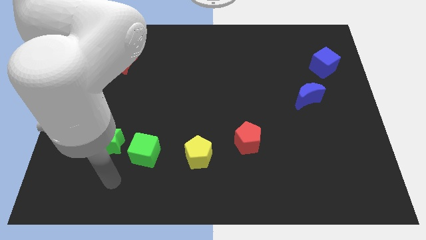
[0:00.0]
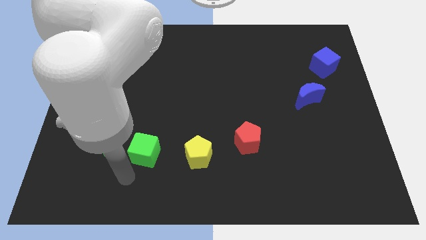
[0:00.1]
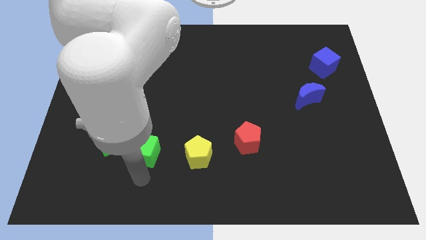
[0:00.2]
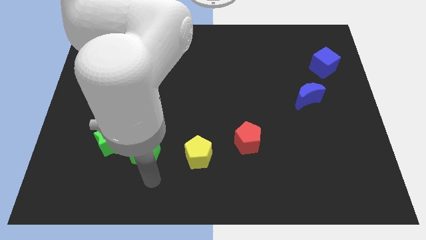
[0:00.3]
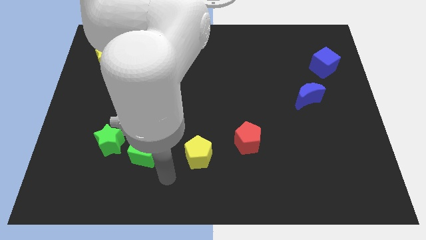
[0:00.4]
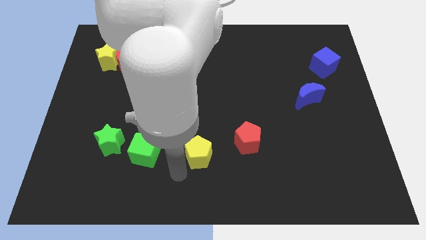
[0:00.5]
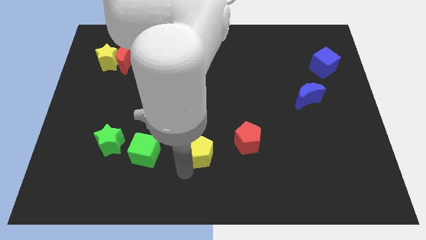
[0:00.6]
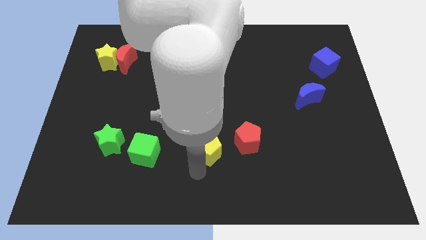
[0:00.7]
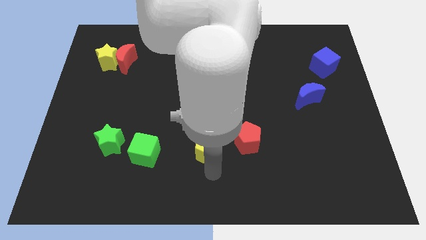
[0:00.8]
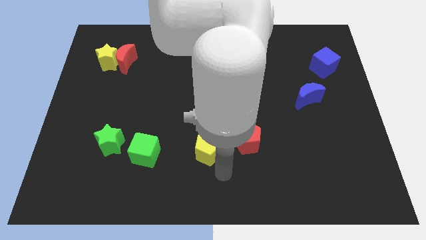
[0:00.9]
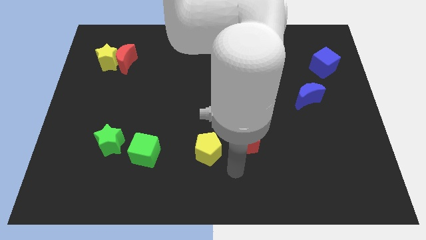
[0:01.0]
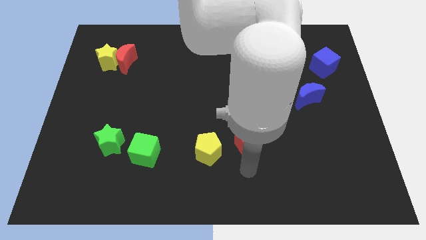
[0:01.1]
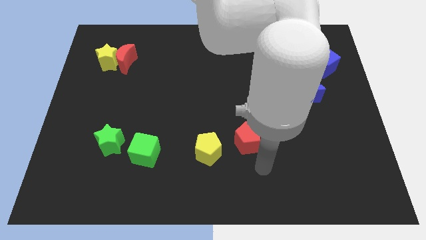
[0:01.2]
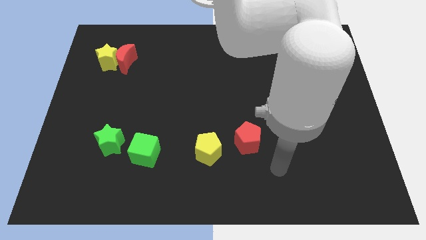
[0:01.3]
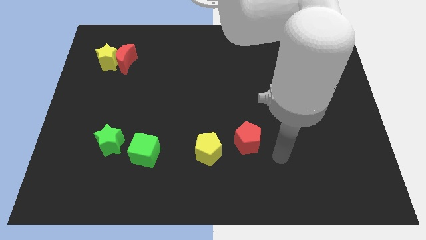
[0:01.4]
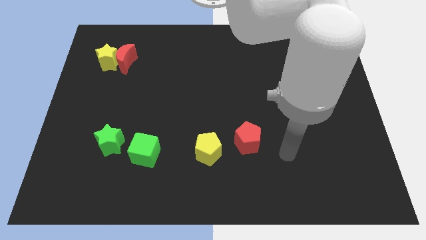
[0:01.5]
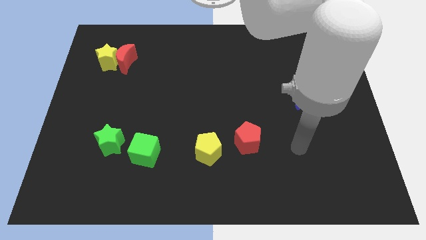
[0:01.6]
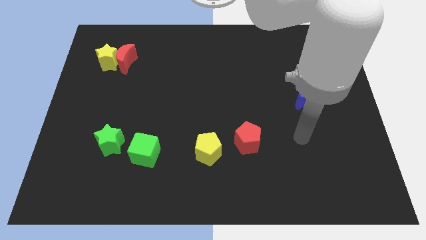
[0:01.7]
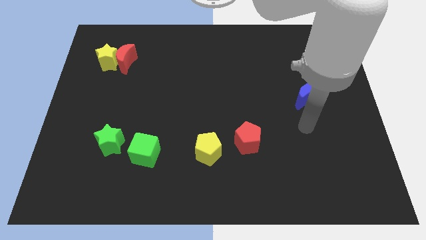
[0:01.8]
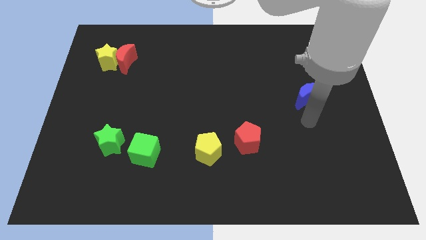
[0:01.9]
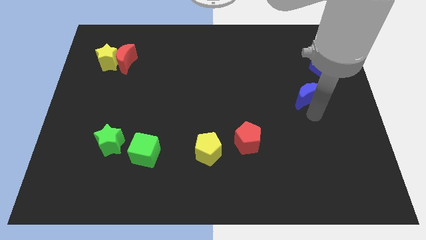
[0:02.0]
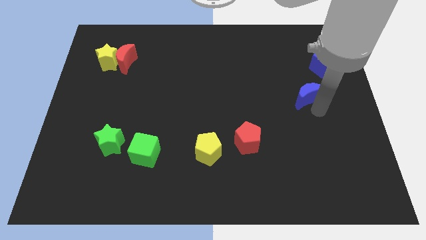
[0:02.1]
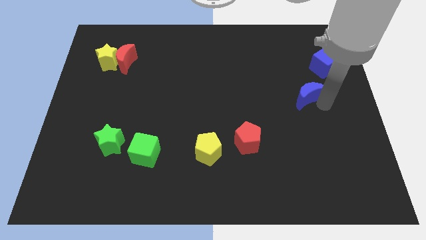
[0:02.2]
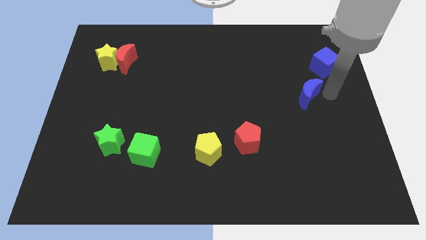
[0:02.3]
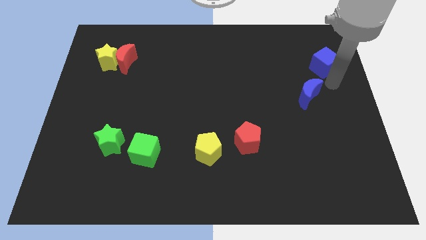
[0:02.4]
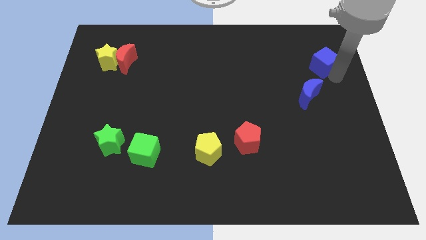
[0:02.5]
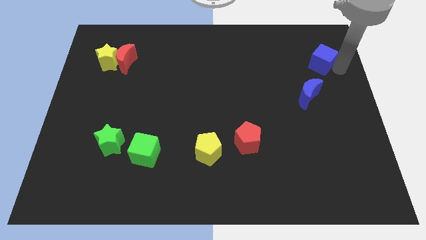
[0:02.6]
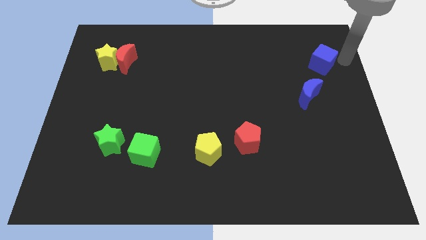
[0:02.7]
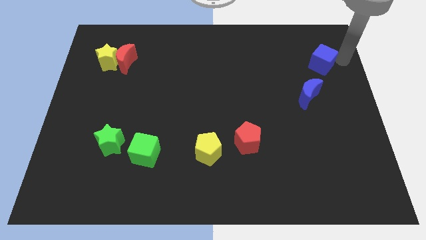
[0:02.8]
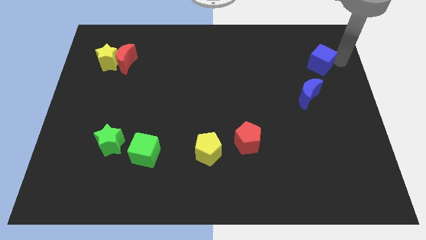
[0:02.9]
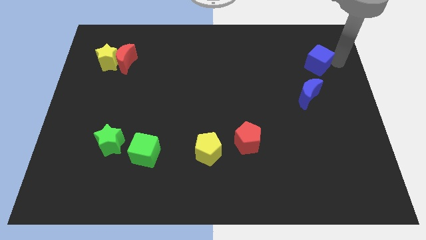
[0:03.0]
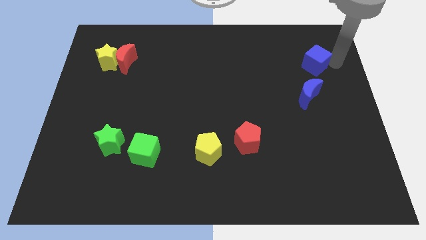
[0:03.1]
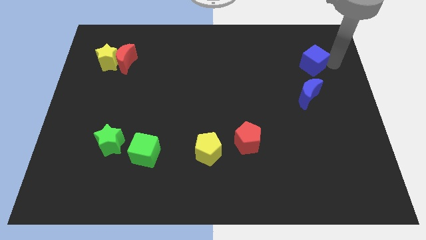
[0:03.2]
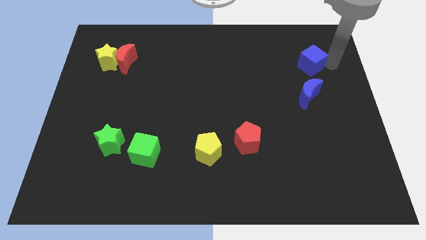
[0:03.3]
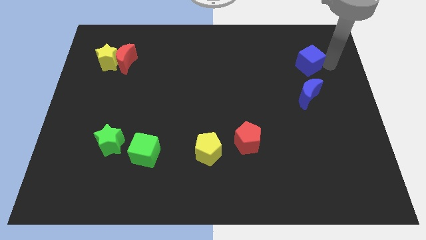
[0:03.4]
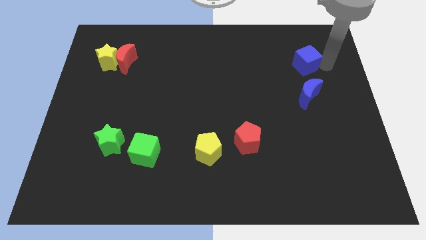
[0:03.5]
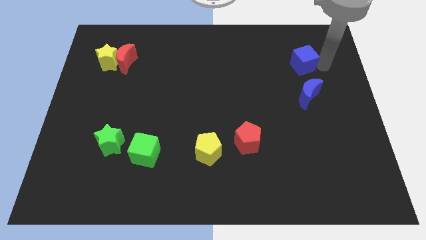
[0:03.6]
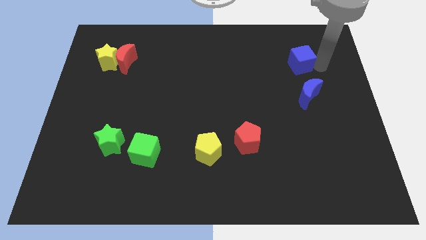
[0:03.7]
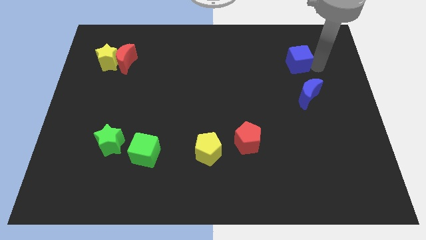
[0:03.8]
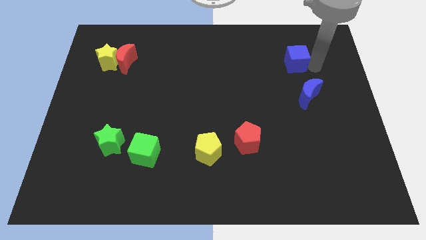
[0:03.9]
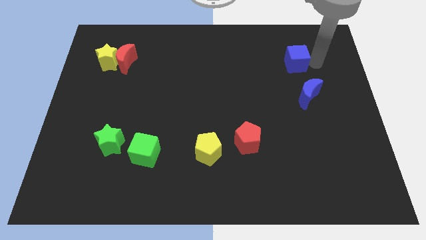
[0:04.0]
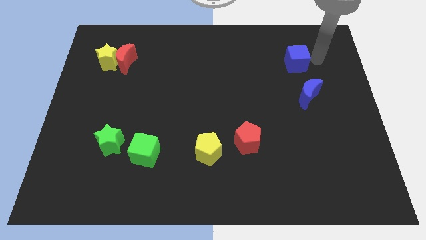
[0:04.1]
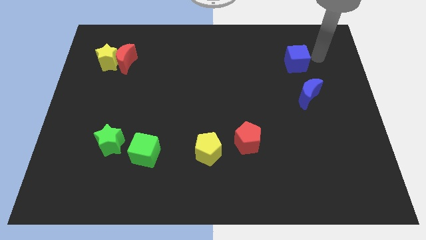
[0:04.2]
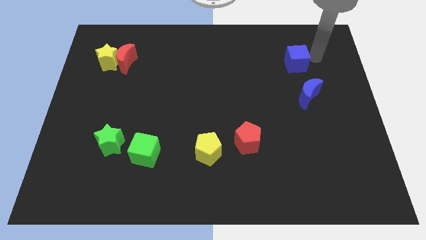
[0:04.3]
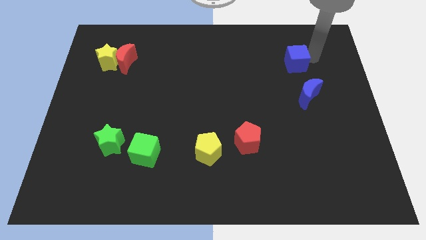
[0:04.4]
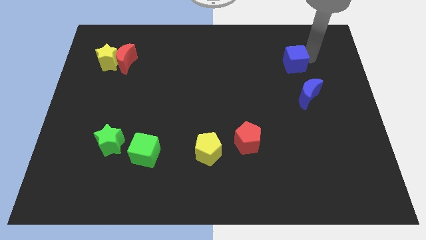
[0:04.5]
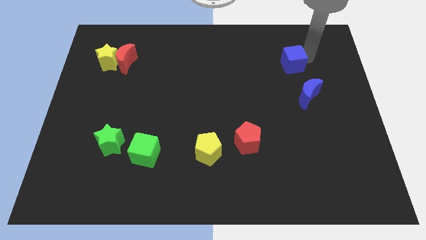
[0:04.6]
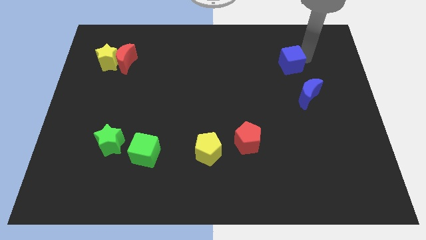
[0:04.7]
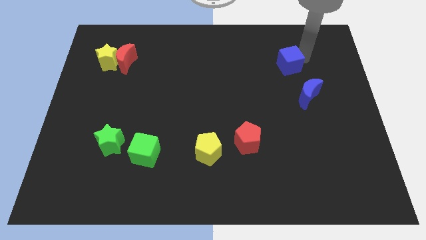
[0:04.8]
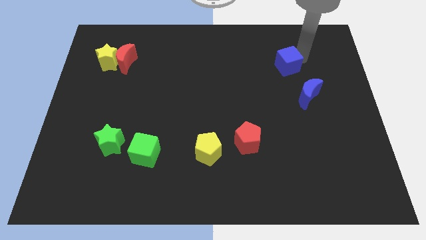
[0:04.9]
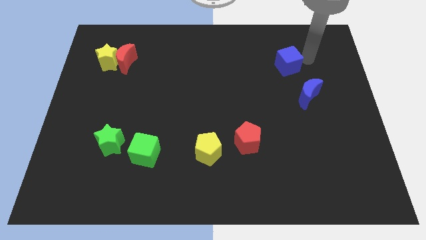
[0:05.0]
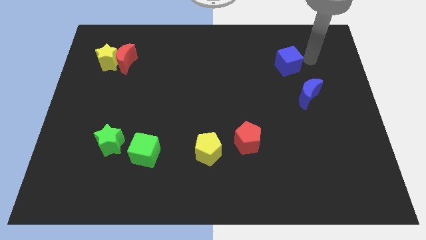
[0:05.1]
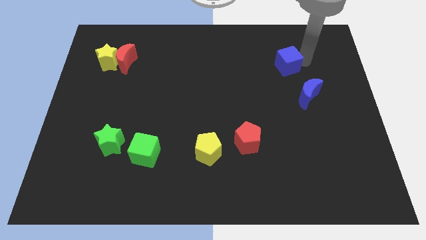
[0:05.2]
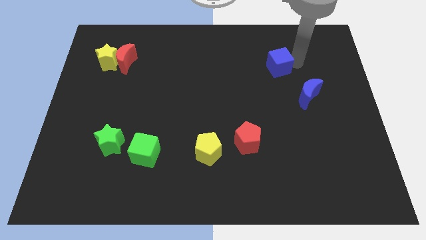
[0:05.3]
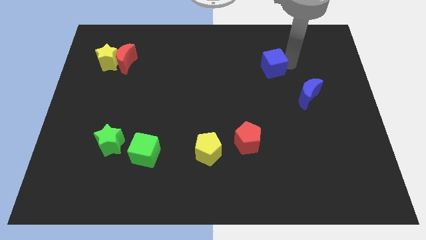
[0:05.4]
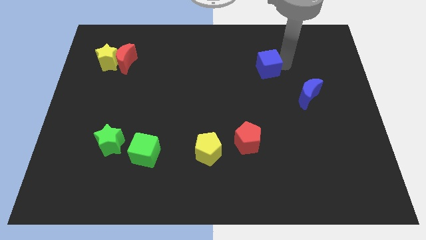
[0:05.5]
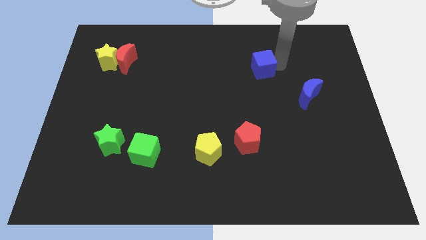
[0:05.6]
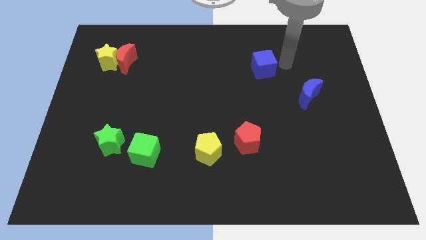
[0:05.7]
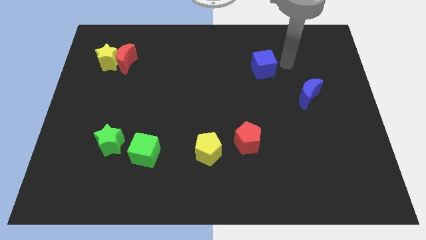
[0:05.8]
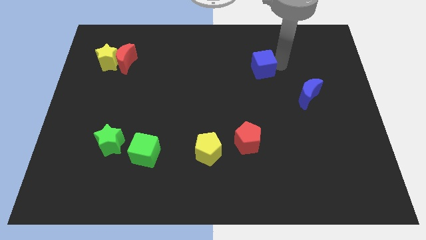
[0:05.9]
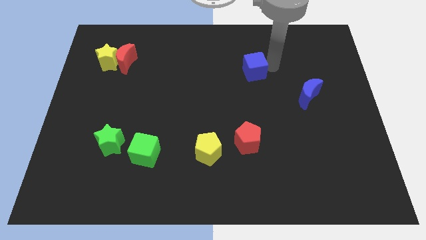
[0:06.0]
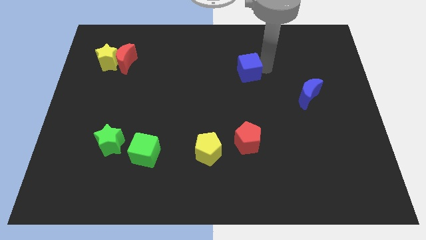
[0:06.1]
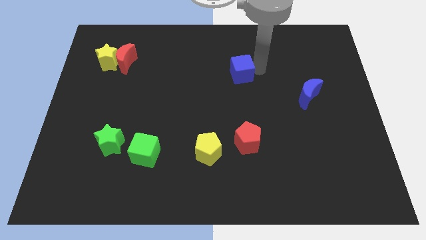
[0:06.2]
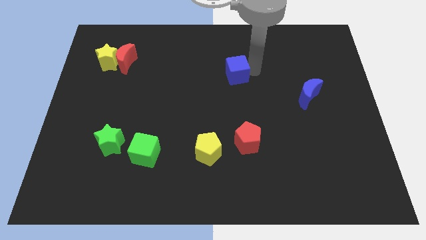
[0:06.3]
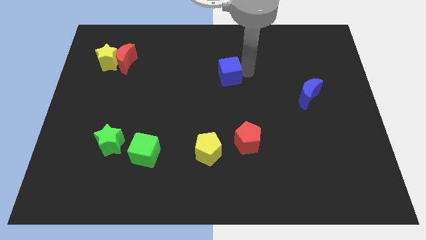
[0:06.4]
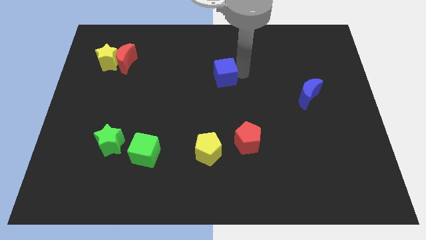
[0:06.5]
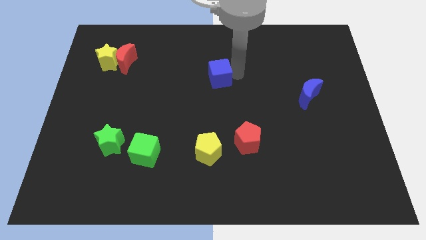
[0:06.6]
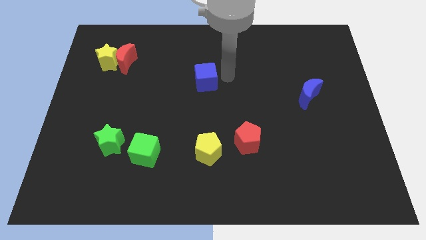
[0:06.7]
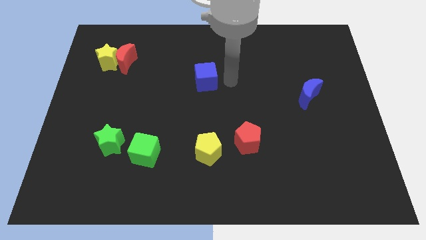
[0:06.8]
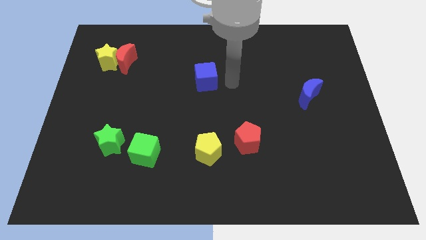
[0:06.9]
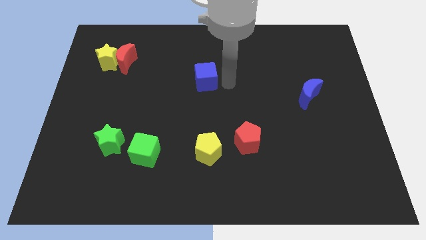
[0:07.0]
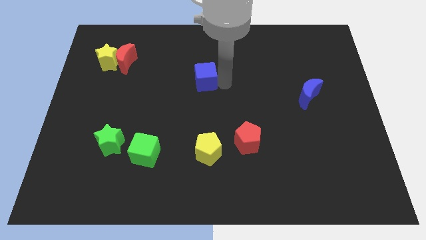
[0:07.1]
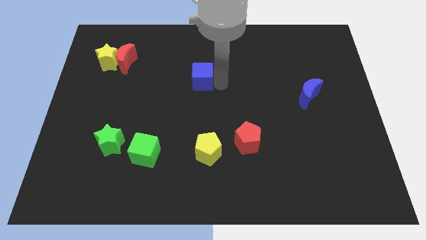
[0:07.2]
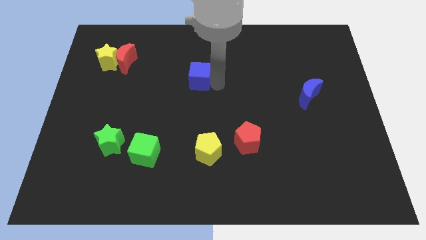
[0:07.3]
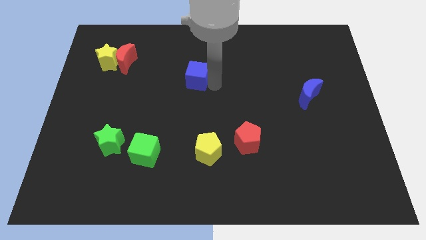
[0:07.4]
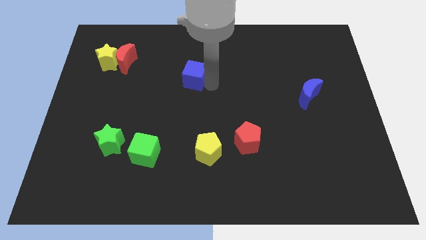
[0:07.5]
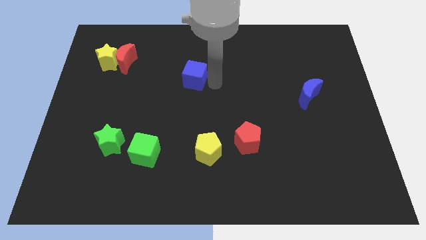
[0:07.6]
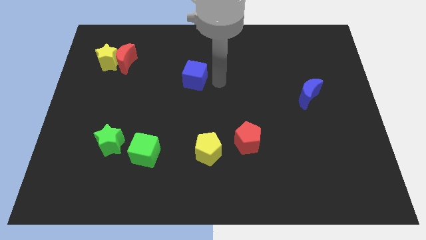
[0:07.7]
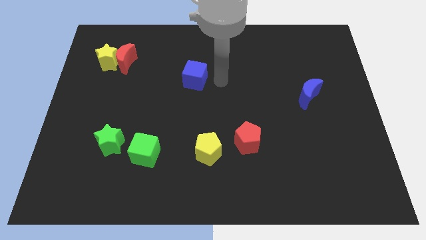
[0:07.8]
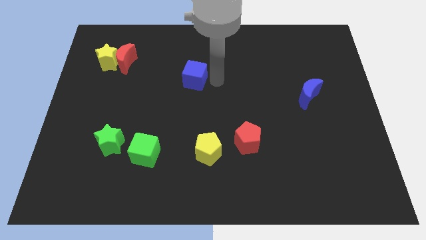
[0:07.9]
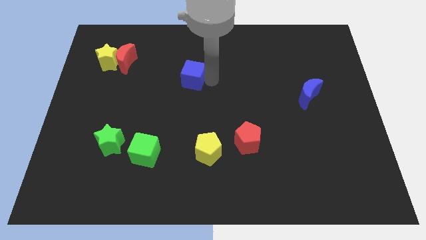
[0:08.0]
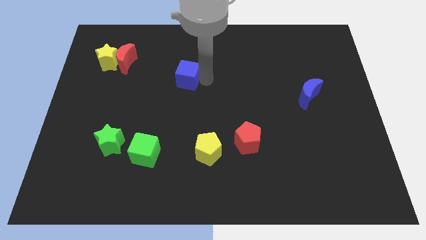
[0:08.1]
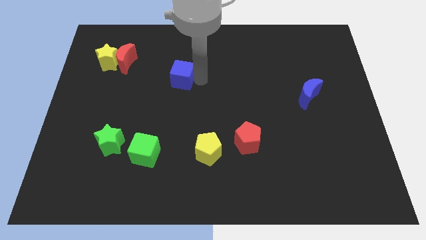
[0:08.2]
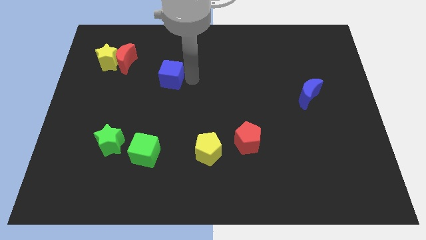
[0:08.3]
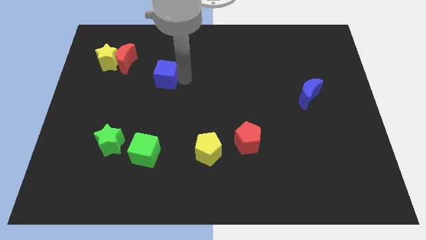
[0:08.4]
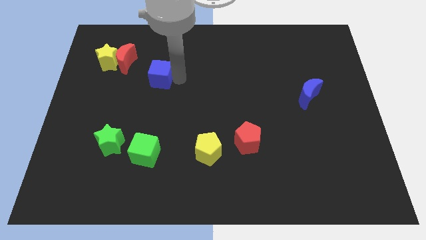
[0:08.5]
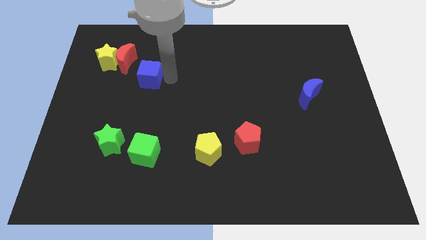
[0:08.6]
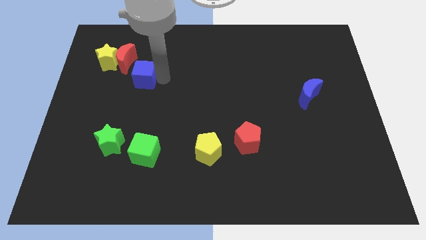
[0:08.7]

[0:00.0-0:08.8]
move the blue cube to the bottom right of the yellow star
